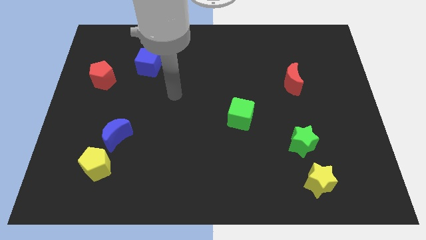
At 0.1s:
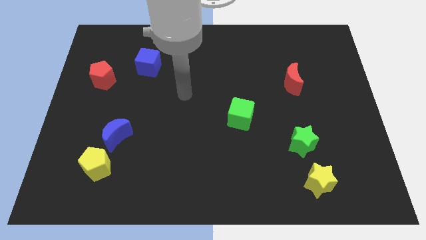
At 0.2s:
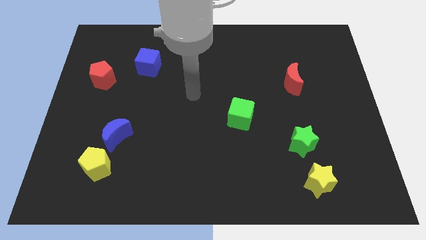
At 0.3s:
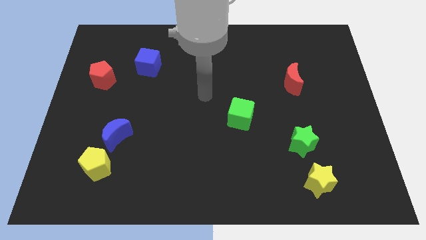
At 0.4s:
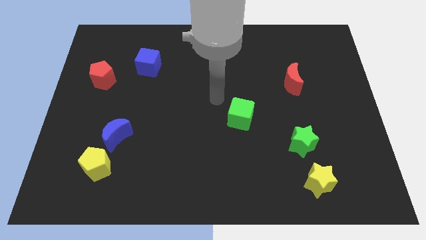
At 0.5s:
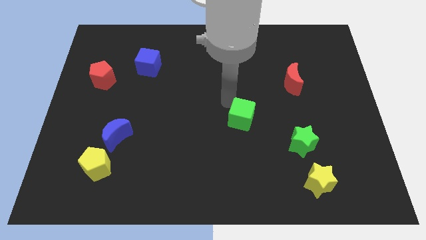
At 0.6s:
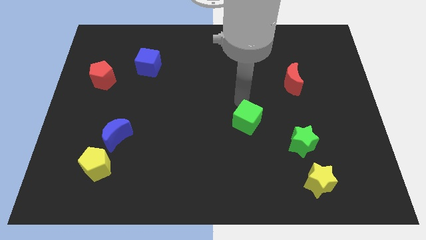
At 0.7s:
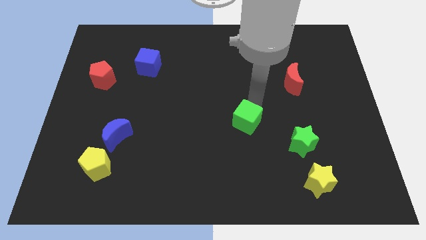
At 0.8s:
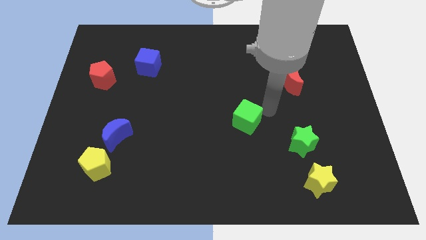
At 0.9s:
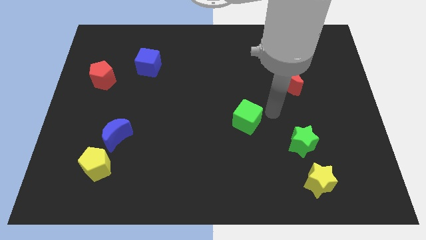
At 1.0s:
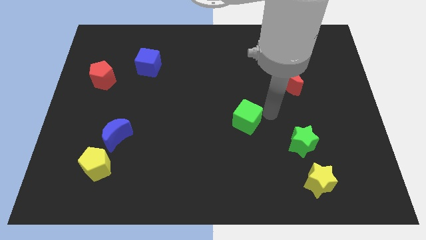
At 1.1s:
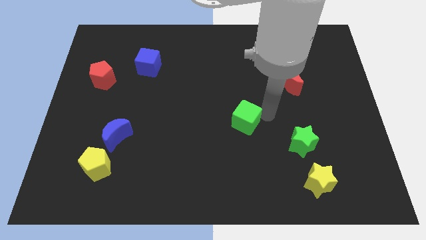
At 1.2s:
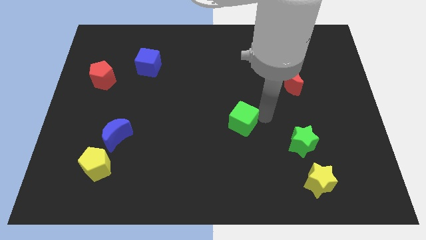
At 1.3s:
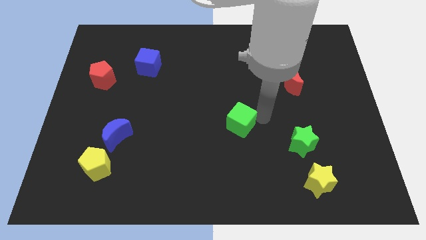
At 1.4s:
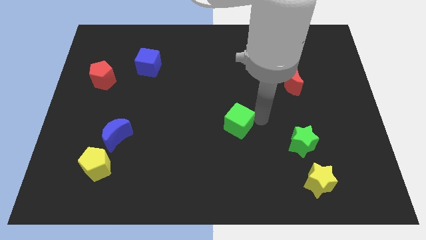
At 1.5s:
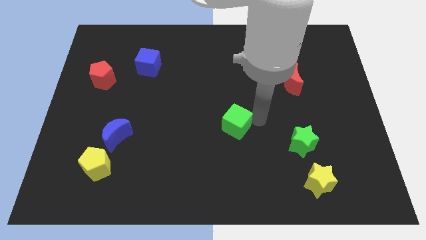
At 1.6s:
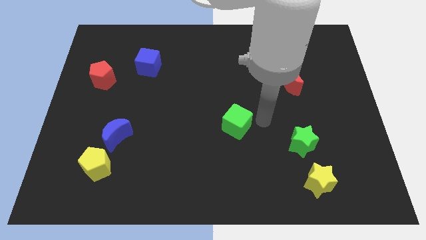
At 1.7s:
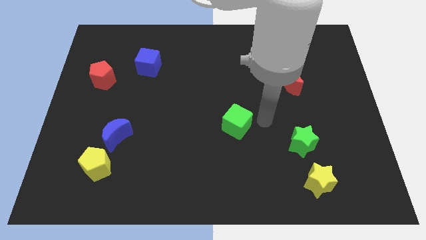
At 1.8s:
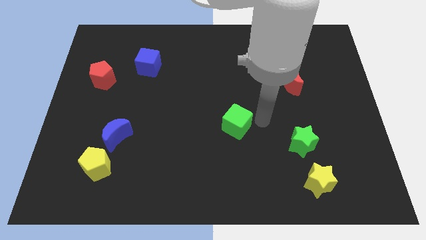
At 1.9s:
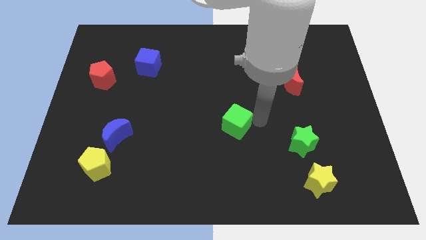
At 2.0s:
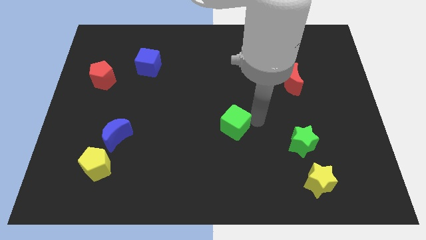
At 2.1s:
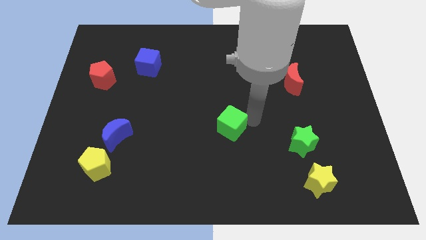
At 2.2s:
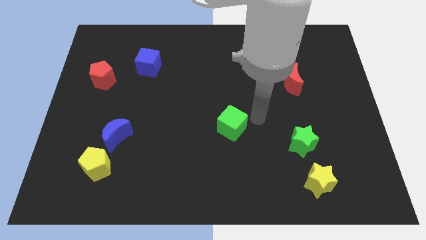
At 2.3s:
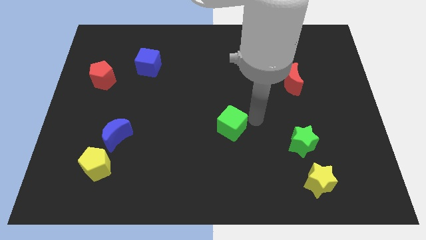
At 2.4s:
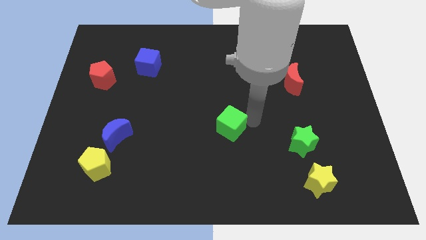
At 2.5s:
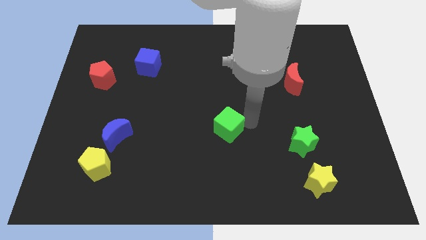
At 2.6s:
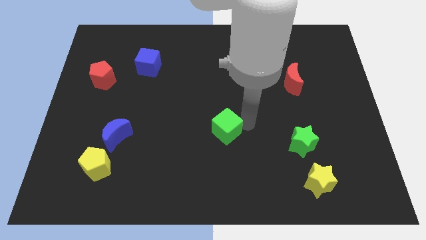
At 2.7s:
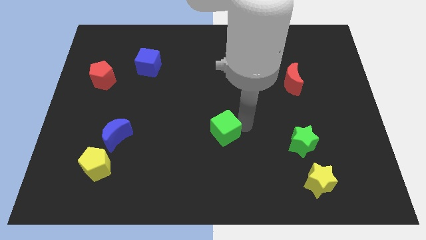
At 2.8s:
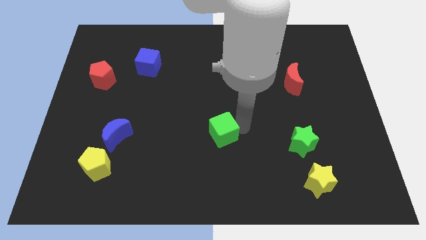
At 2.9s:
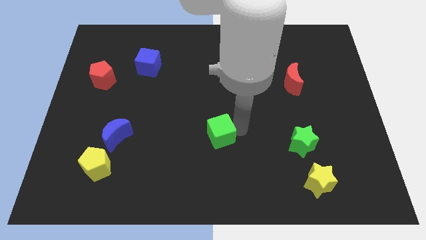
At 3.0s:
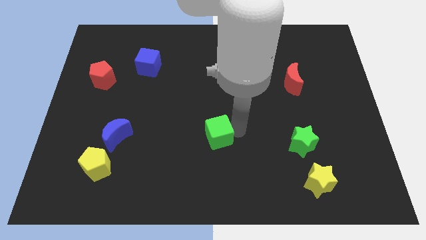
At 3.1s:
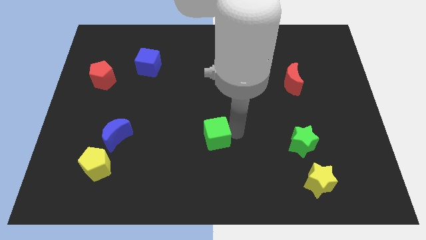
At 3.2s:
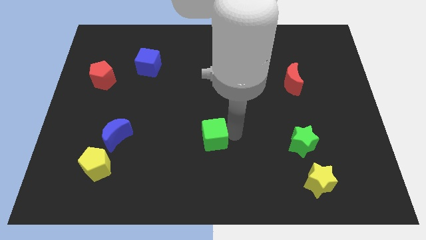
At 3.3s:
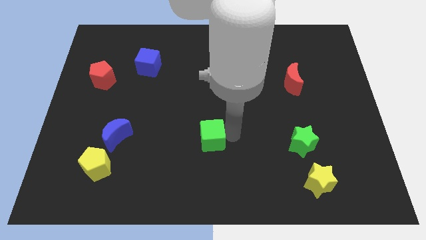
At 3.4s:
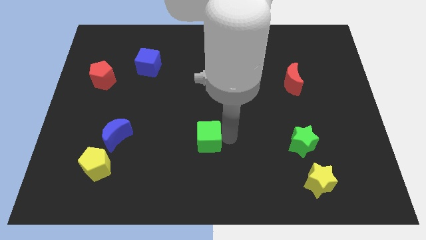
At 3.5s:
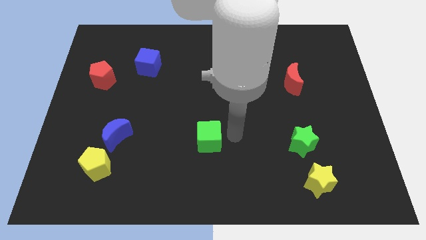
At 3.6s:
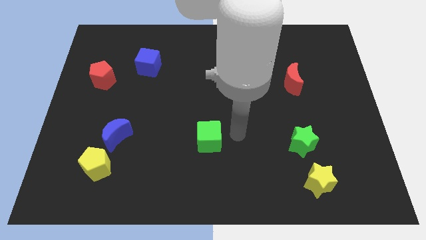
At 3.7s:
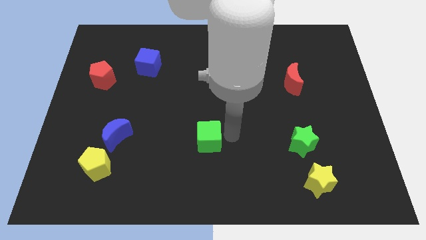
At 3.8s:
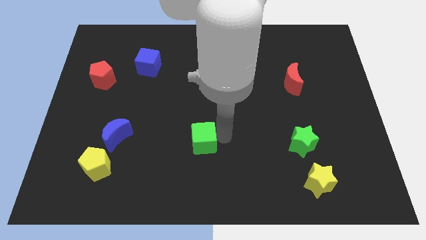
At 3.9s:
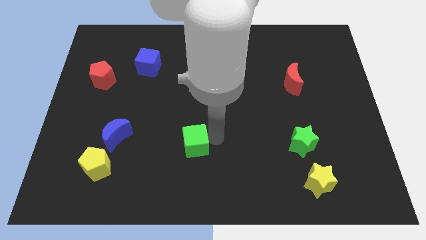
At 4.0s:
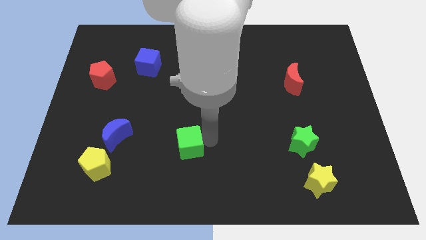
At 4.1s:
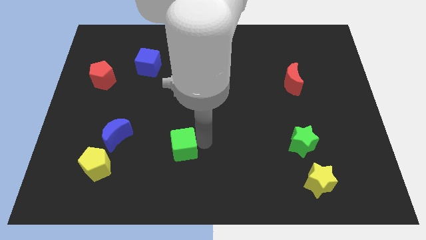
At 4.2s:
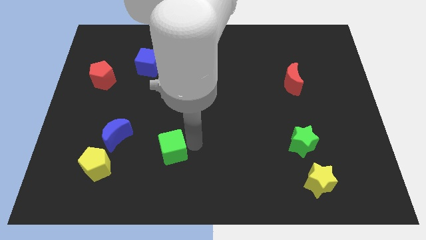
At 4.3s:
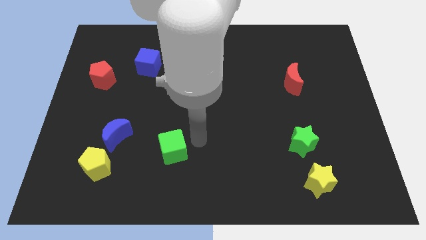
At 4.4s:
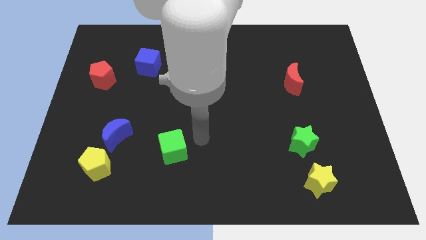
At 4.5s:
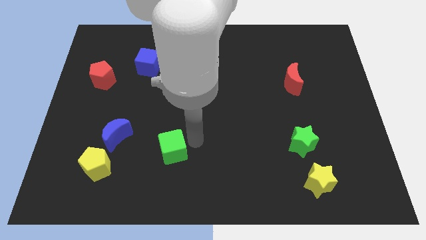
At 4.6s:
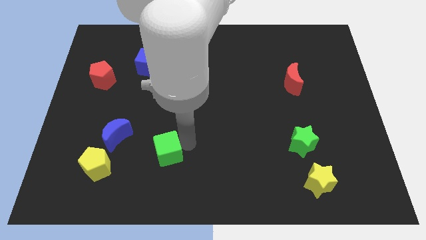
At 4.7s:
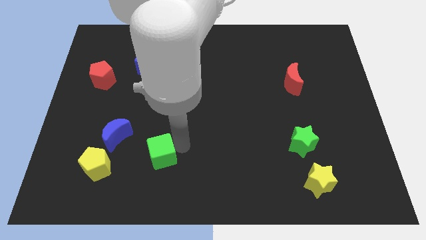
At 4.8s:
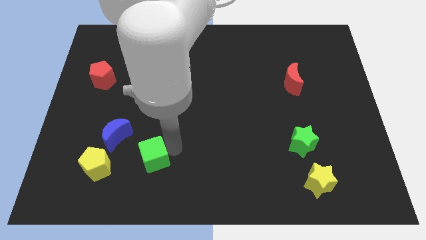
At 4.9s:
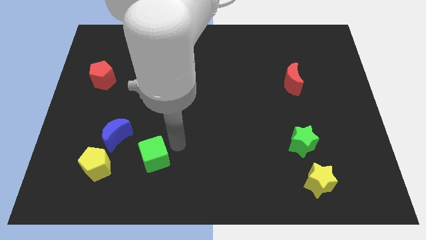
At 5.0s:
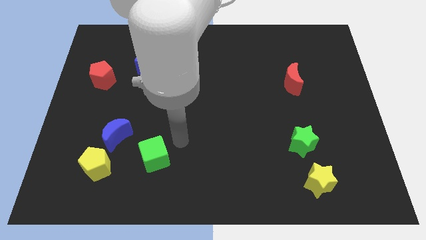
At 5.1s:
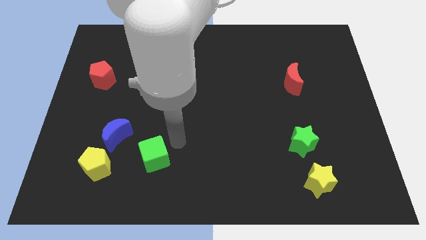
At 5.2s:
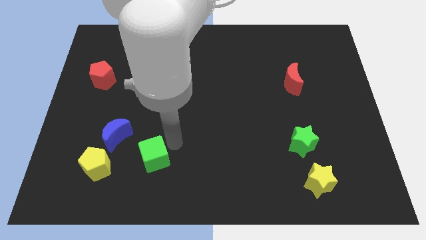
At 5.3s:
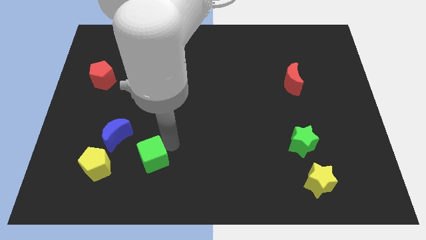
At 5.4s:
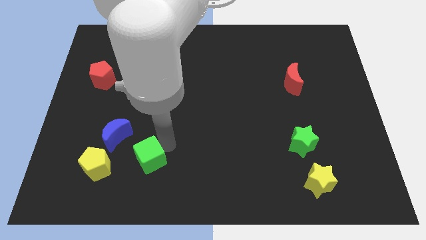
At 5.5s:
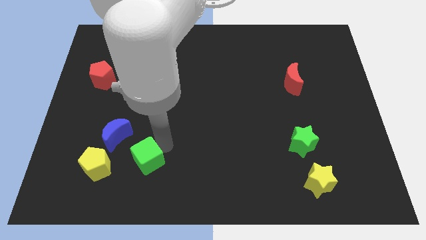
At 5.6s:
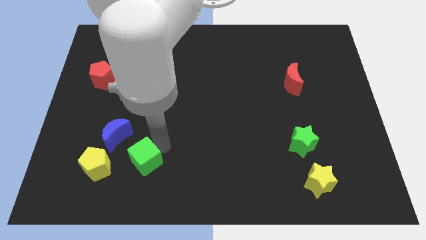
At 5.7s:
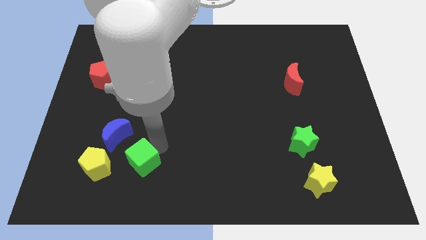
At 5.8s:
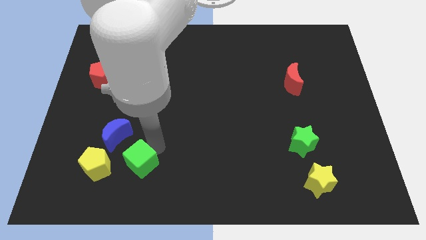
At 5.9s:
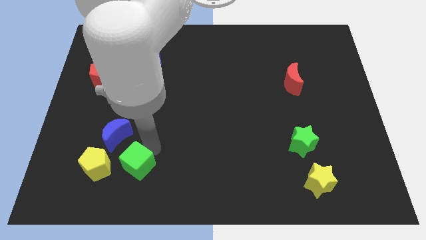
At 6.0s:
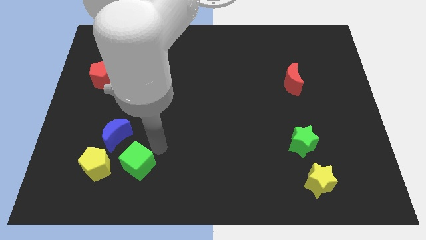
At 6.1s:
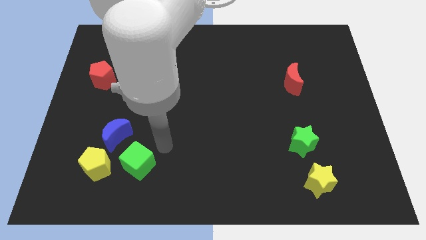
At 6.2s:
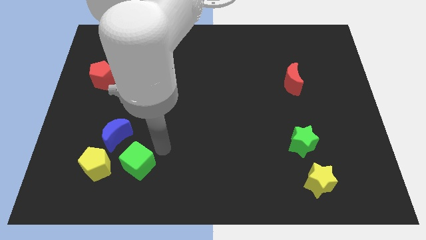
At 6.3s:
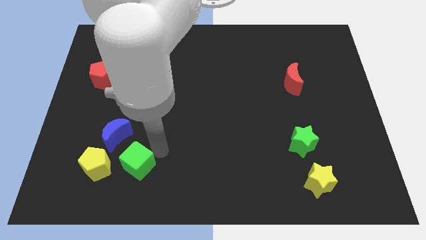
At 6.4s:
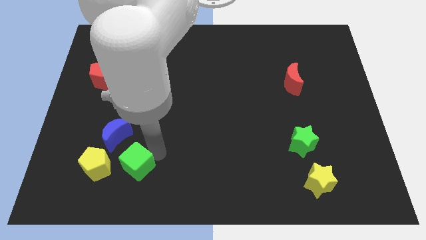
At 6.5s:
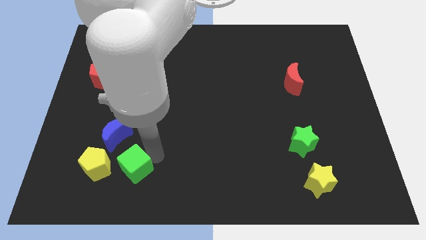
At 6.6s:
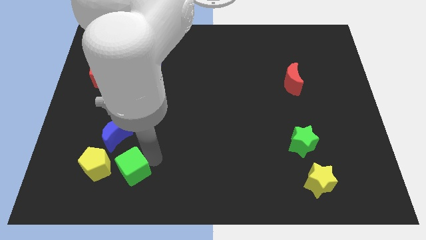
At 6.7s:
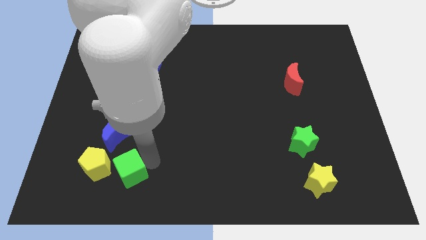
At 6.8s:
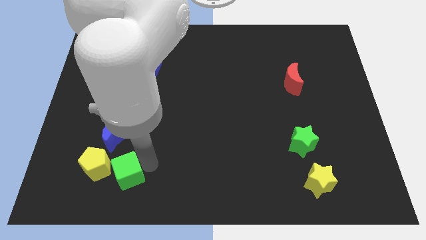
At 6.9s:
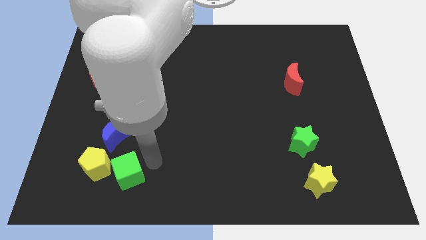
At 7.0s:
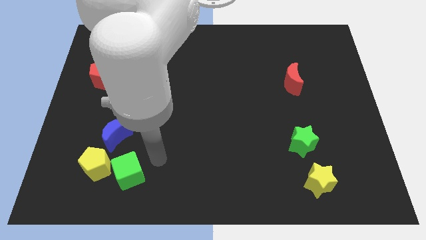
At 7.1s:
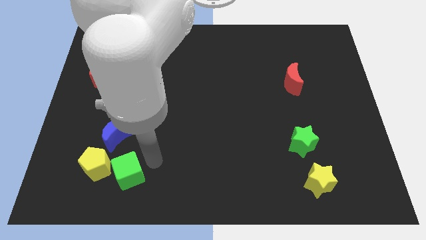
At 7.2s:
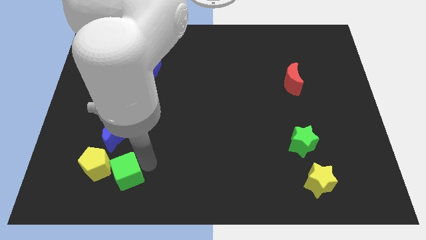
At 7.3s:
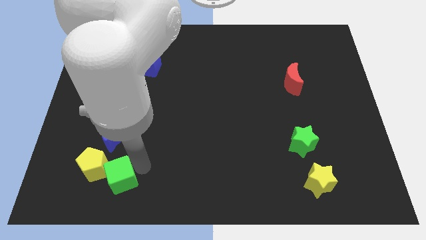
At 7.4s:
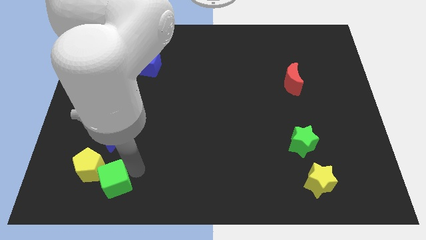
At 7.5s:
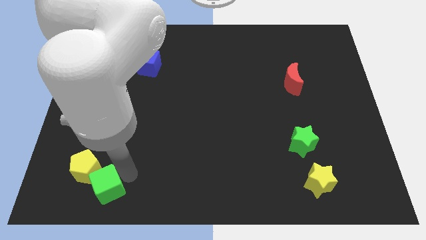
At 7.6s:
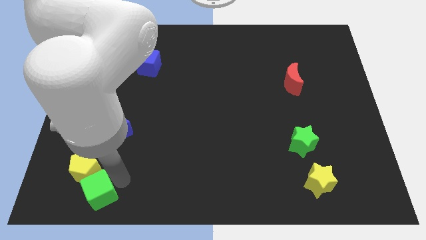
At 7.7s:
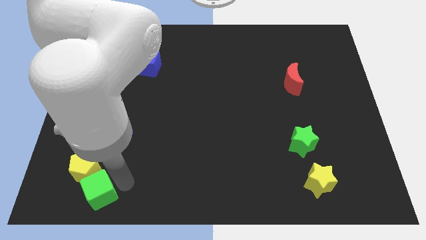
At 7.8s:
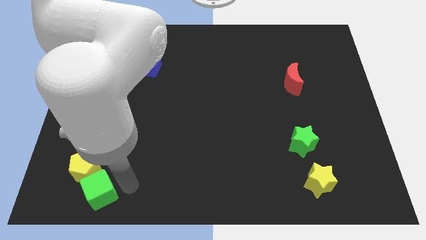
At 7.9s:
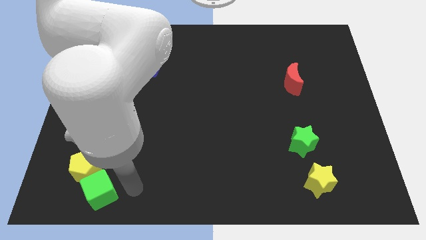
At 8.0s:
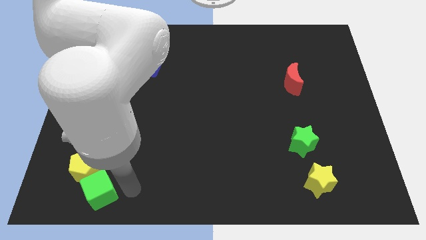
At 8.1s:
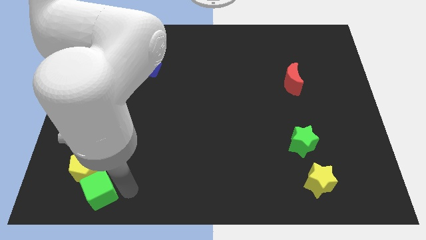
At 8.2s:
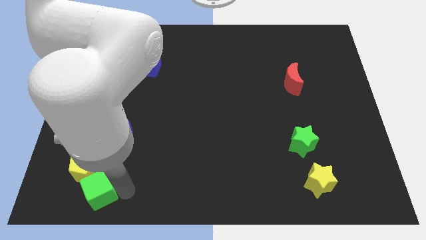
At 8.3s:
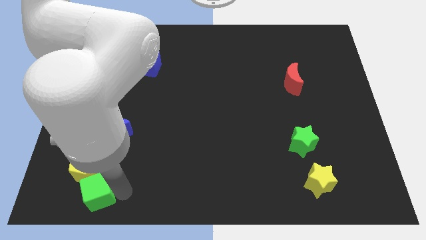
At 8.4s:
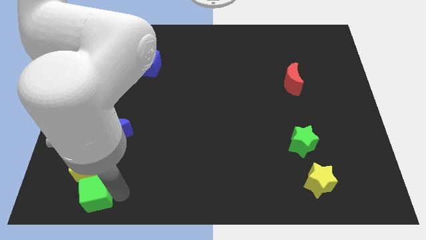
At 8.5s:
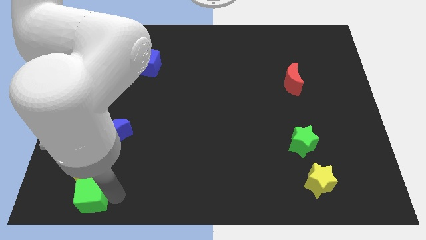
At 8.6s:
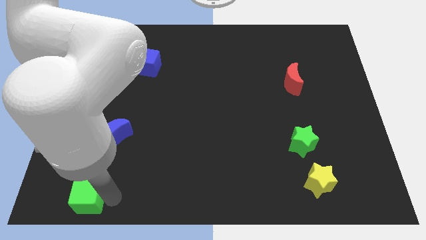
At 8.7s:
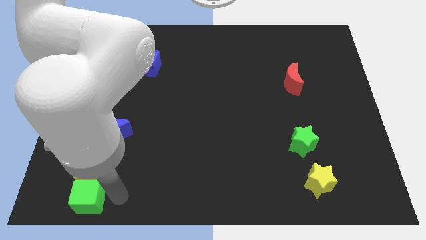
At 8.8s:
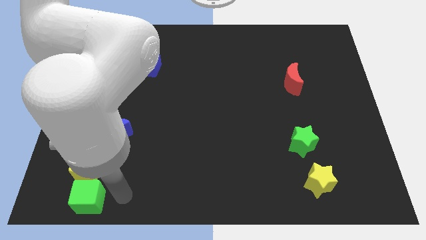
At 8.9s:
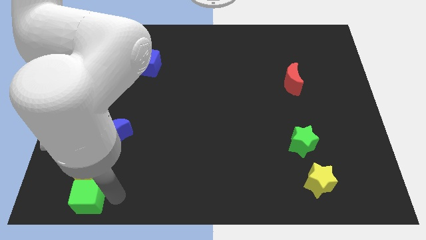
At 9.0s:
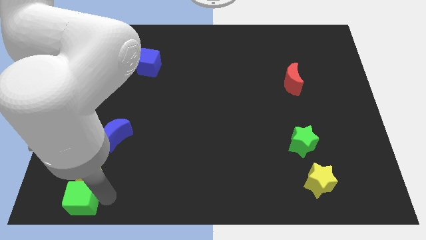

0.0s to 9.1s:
put the green cube to the bottom left
